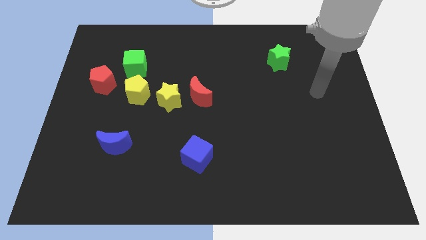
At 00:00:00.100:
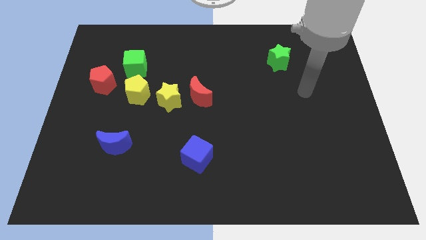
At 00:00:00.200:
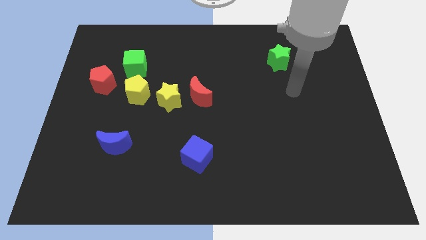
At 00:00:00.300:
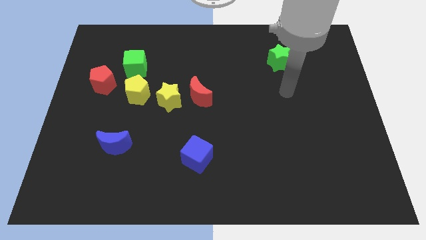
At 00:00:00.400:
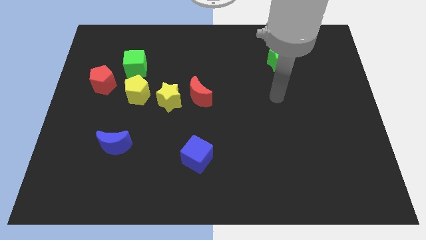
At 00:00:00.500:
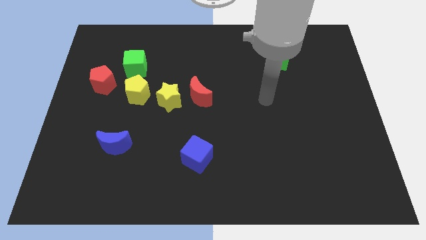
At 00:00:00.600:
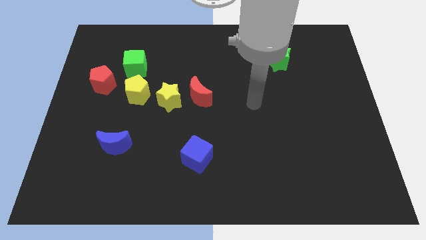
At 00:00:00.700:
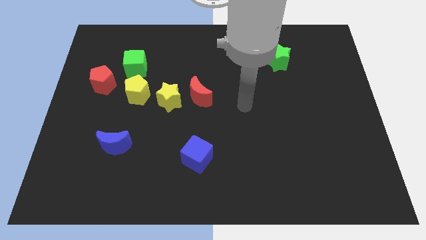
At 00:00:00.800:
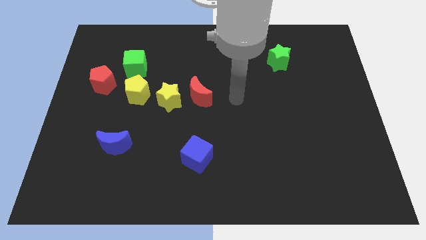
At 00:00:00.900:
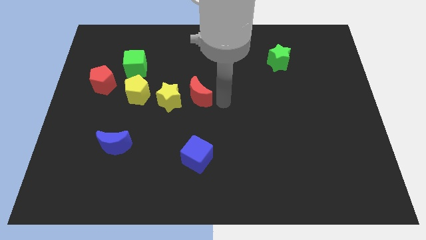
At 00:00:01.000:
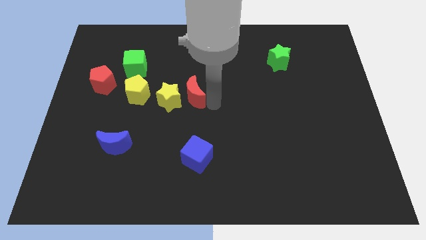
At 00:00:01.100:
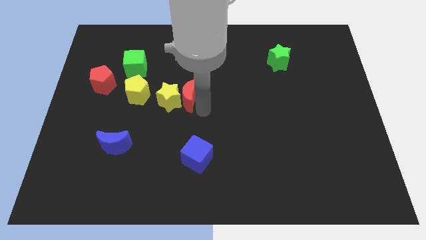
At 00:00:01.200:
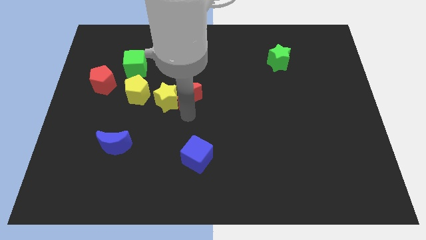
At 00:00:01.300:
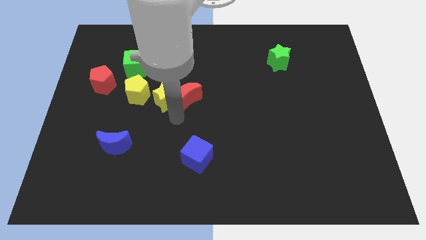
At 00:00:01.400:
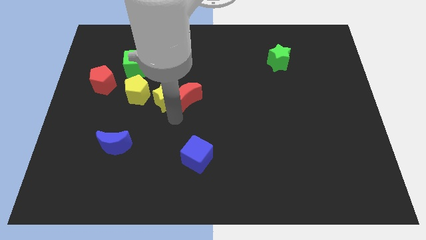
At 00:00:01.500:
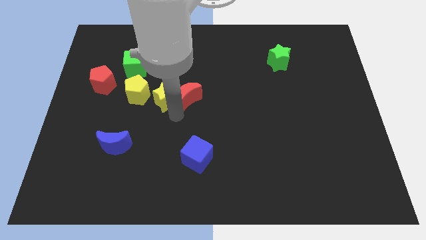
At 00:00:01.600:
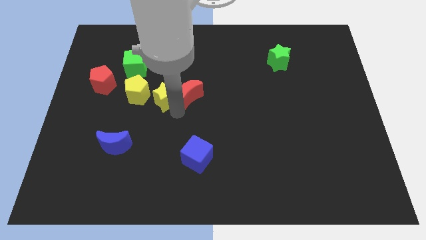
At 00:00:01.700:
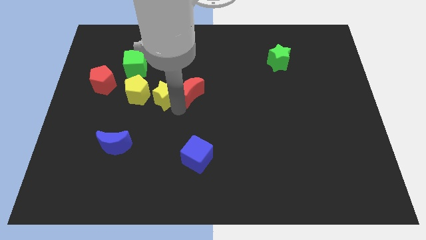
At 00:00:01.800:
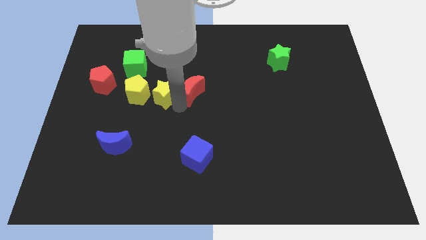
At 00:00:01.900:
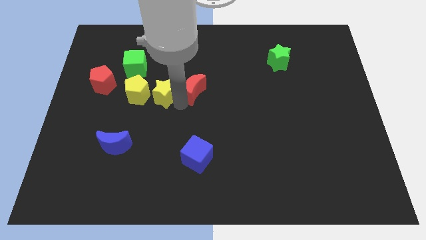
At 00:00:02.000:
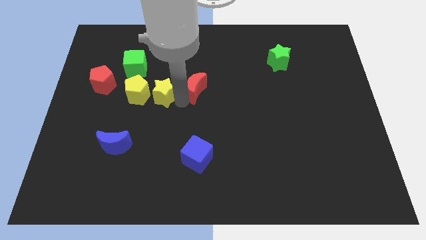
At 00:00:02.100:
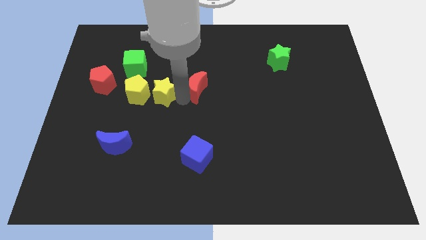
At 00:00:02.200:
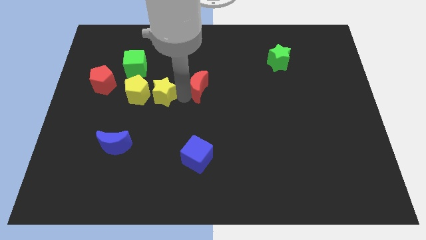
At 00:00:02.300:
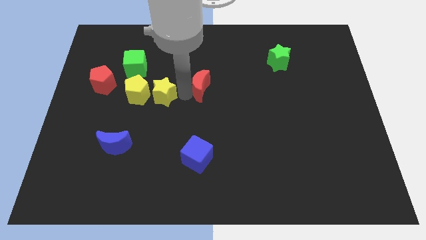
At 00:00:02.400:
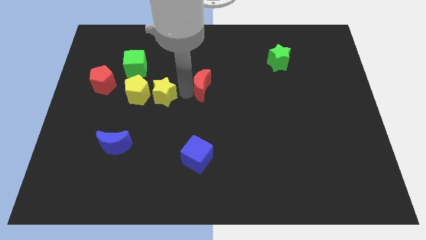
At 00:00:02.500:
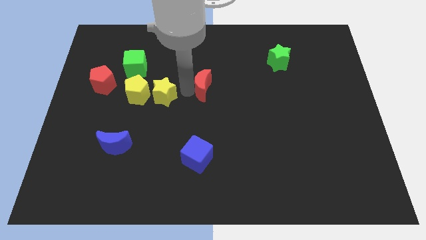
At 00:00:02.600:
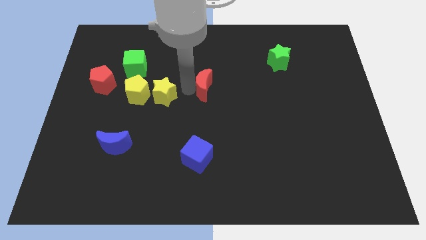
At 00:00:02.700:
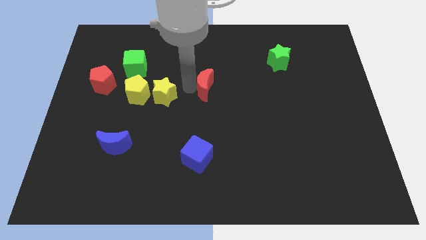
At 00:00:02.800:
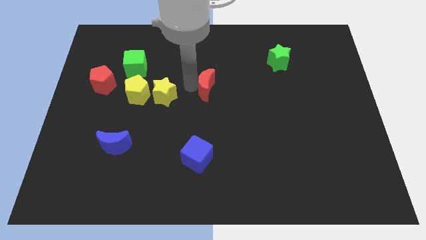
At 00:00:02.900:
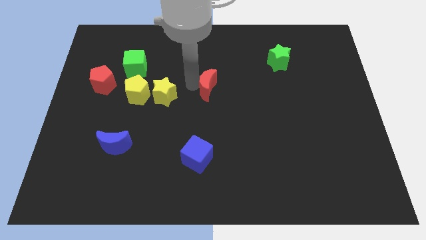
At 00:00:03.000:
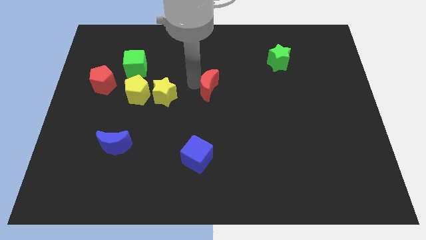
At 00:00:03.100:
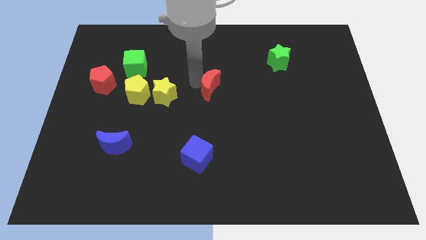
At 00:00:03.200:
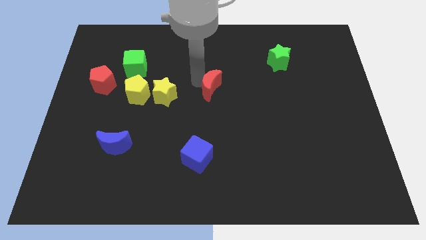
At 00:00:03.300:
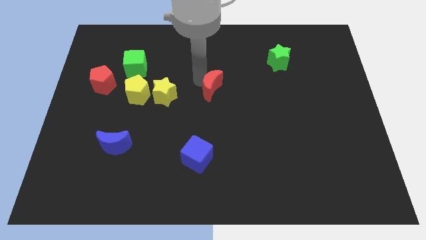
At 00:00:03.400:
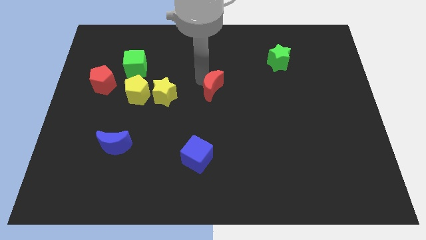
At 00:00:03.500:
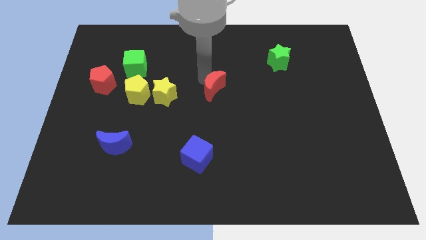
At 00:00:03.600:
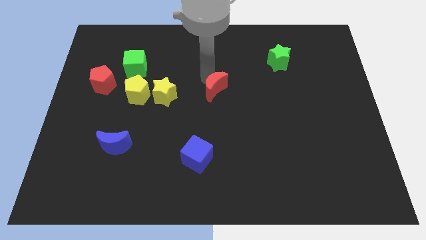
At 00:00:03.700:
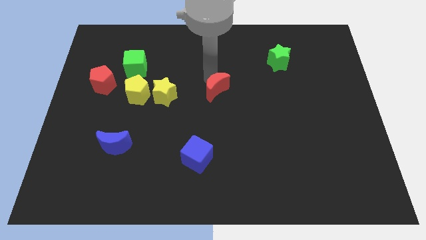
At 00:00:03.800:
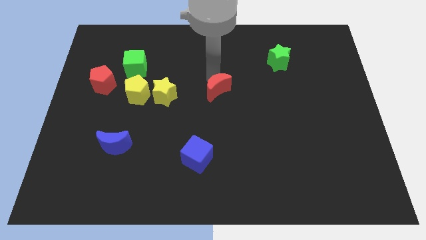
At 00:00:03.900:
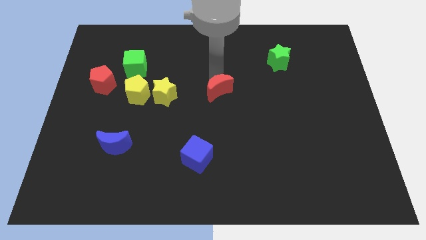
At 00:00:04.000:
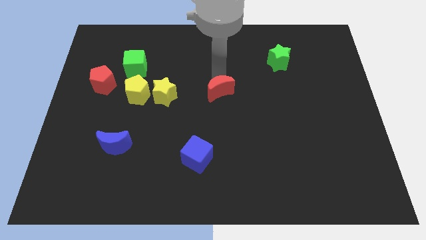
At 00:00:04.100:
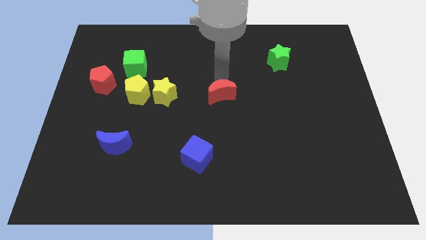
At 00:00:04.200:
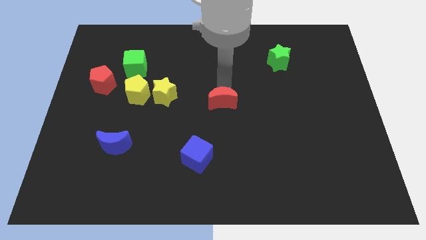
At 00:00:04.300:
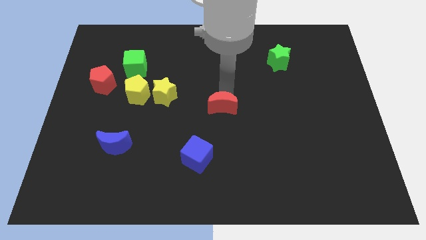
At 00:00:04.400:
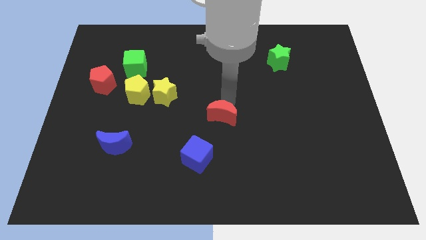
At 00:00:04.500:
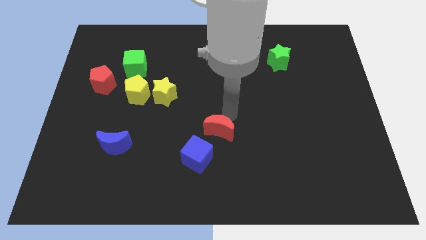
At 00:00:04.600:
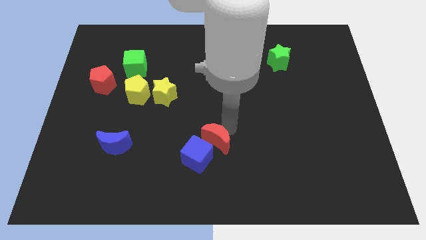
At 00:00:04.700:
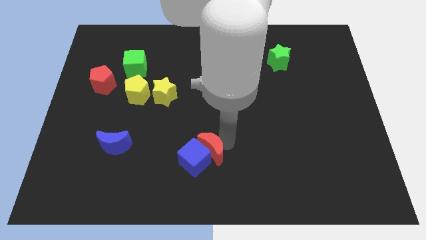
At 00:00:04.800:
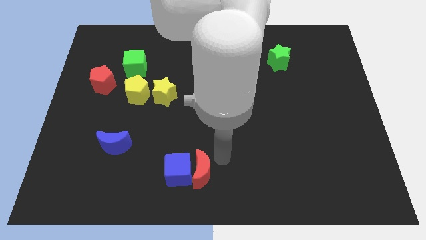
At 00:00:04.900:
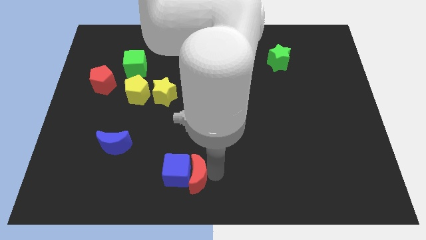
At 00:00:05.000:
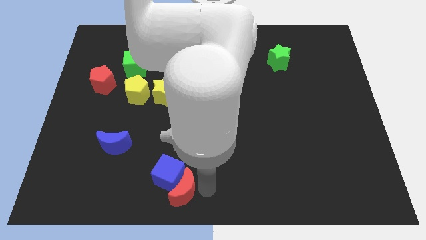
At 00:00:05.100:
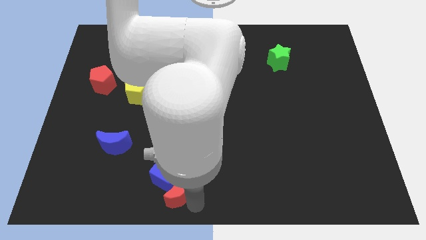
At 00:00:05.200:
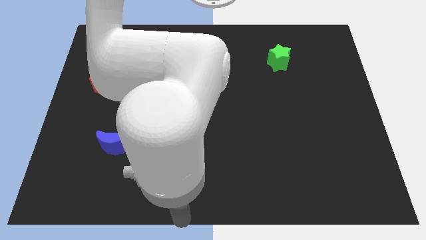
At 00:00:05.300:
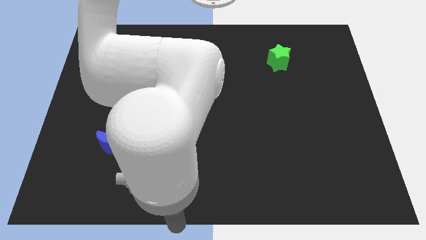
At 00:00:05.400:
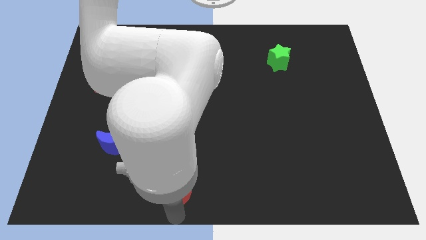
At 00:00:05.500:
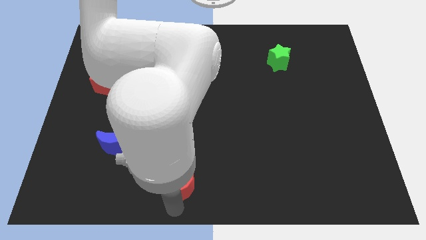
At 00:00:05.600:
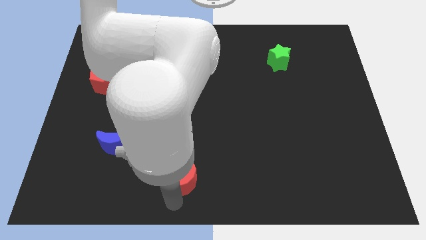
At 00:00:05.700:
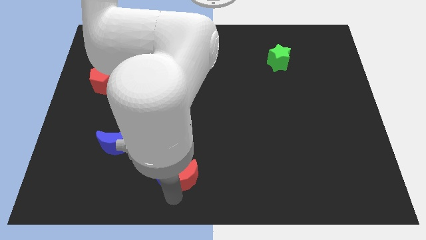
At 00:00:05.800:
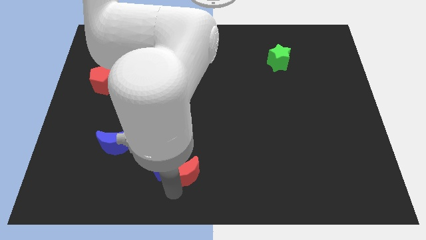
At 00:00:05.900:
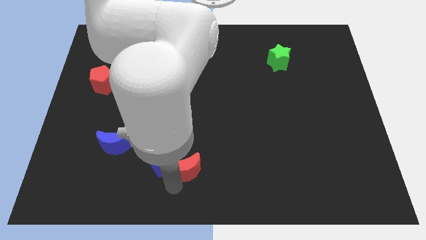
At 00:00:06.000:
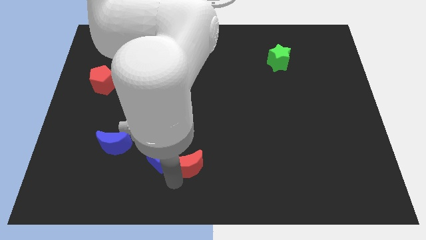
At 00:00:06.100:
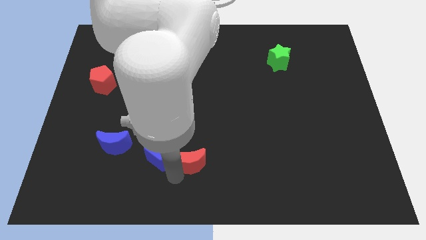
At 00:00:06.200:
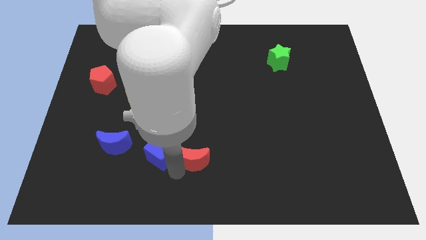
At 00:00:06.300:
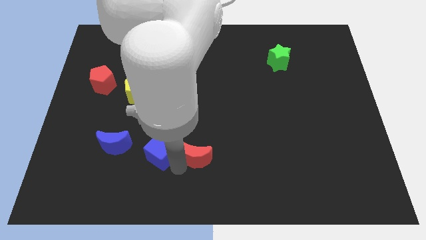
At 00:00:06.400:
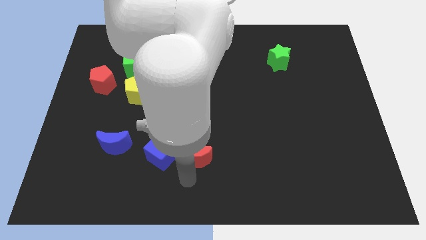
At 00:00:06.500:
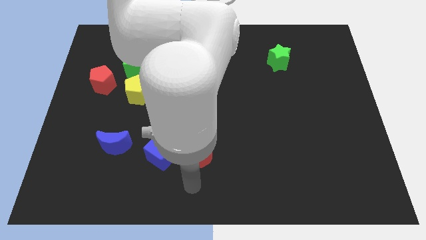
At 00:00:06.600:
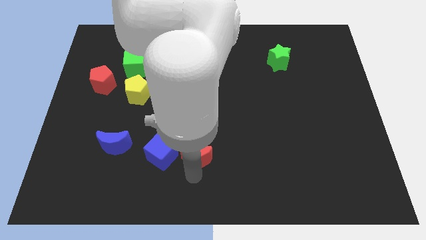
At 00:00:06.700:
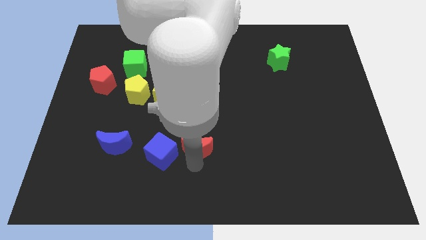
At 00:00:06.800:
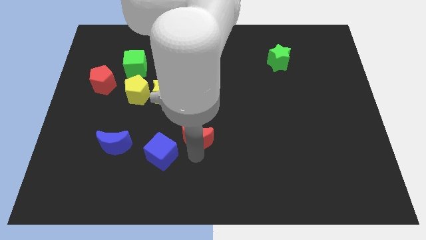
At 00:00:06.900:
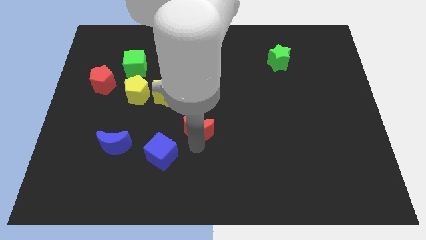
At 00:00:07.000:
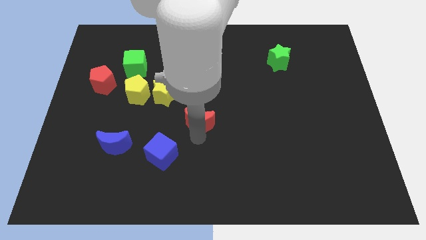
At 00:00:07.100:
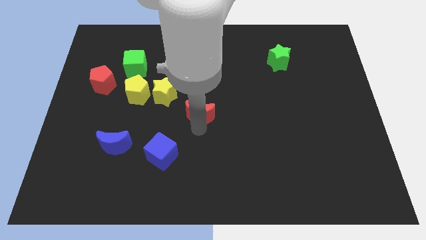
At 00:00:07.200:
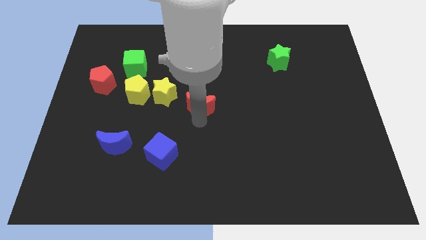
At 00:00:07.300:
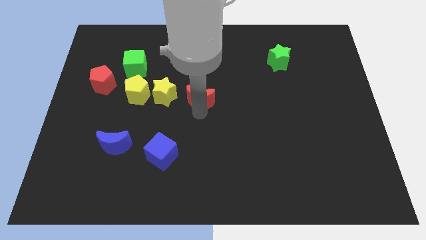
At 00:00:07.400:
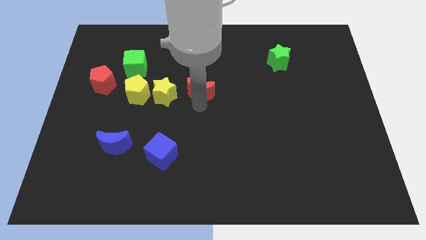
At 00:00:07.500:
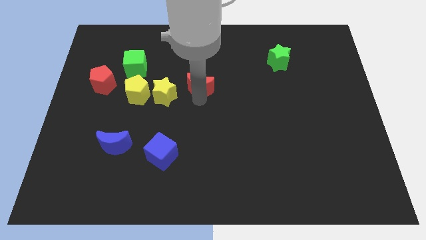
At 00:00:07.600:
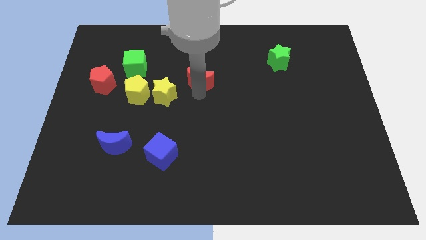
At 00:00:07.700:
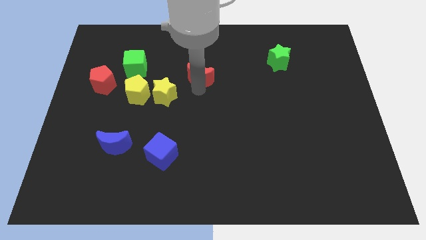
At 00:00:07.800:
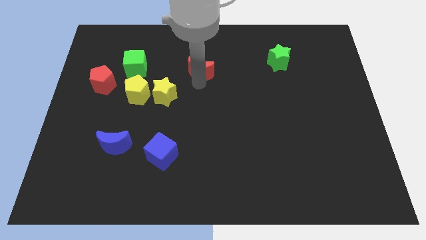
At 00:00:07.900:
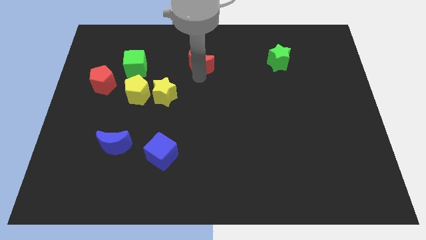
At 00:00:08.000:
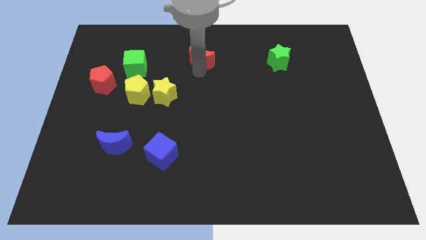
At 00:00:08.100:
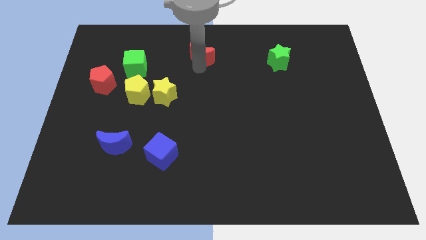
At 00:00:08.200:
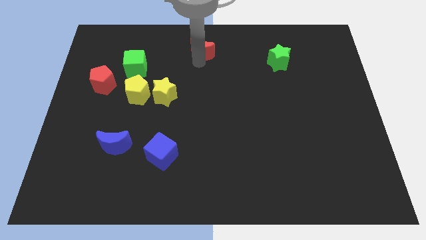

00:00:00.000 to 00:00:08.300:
push the red moon to the top side
